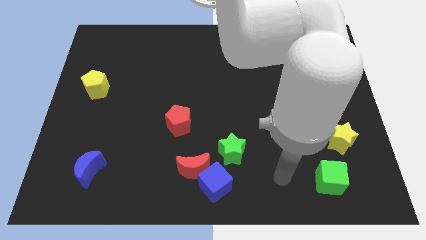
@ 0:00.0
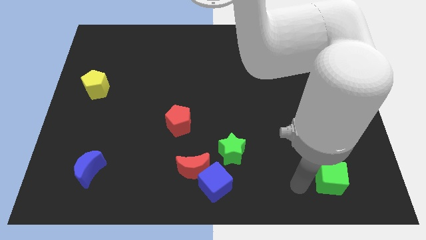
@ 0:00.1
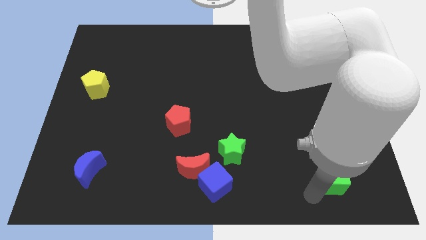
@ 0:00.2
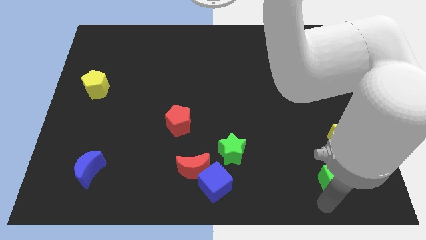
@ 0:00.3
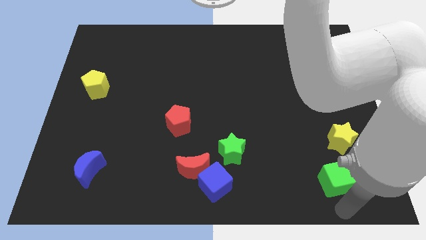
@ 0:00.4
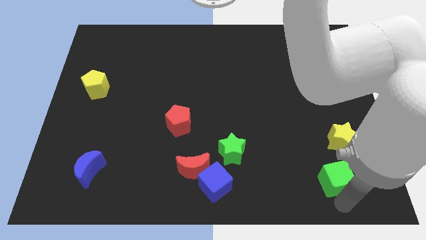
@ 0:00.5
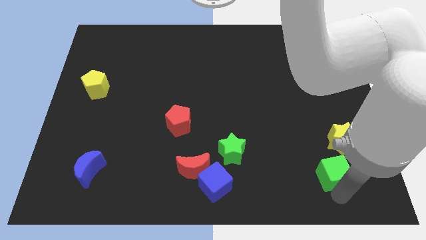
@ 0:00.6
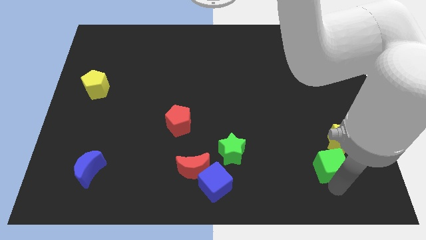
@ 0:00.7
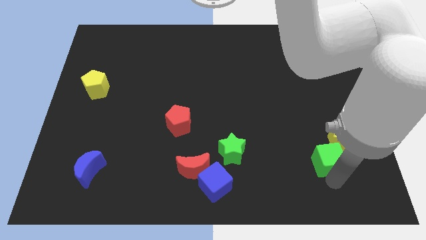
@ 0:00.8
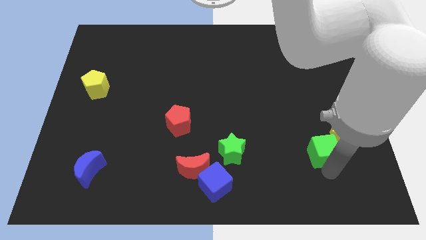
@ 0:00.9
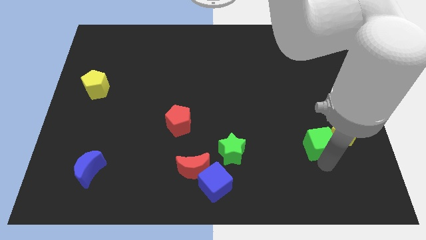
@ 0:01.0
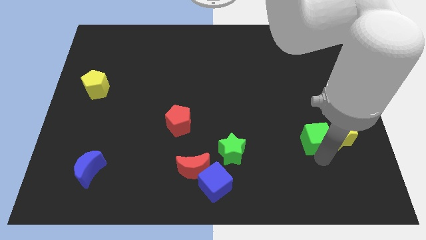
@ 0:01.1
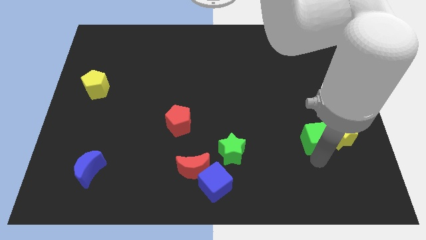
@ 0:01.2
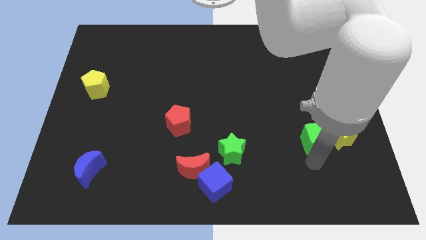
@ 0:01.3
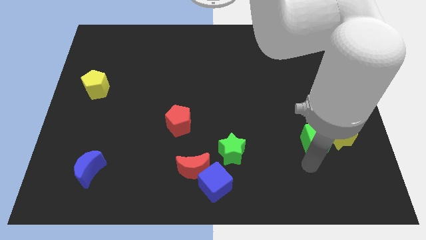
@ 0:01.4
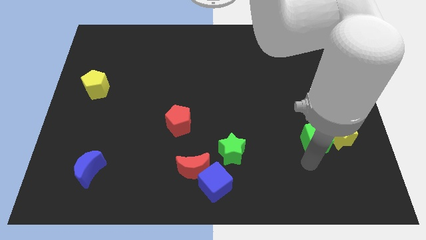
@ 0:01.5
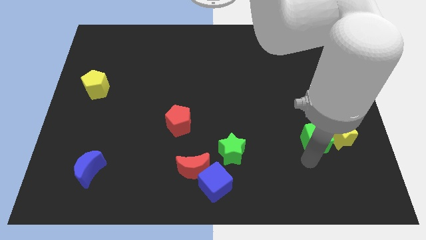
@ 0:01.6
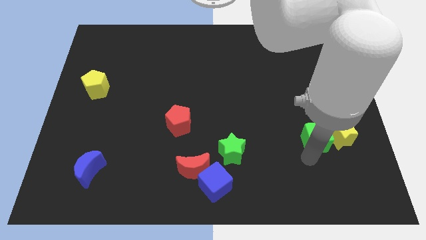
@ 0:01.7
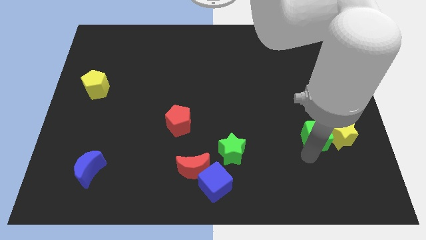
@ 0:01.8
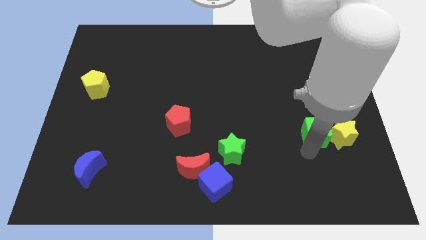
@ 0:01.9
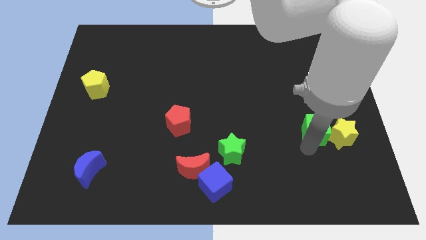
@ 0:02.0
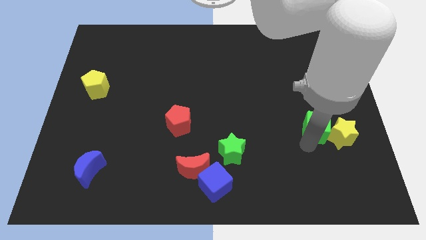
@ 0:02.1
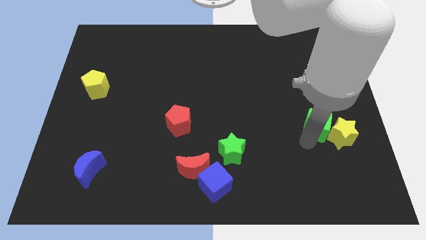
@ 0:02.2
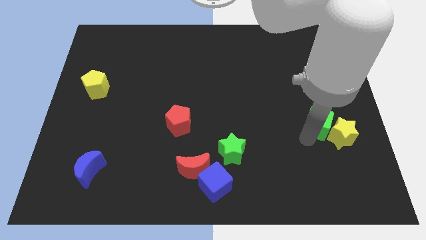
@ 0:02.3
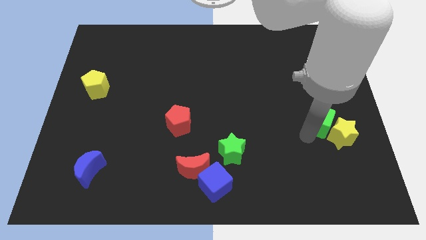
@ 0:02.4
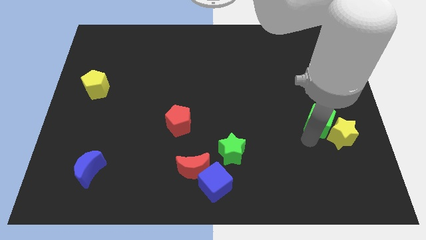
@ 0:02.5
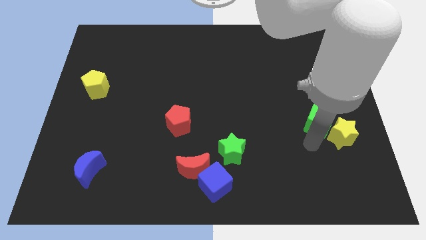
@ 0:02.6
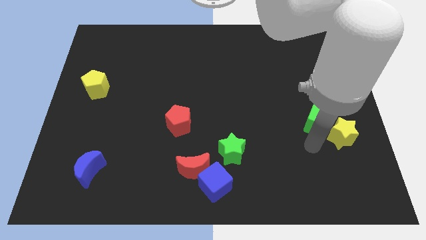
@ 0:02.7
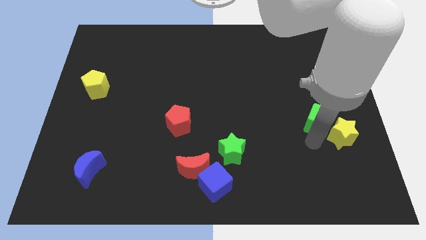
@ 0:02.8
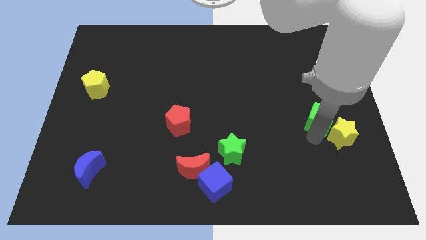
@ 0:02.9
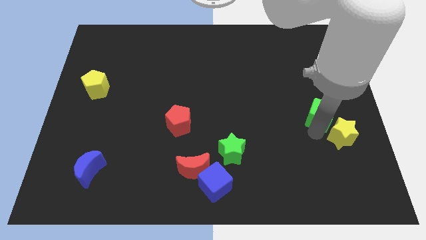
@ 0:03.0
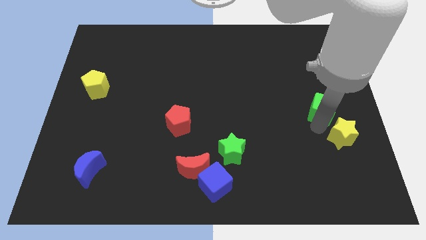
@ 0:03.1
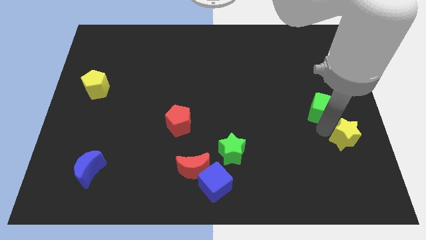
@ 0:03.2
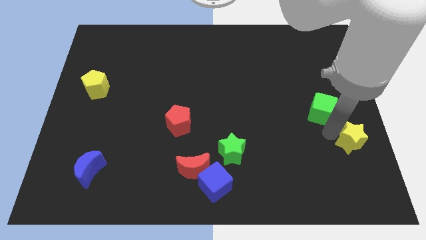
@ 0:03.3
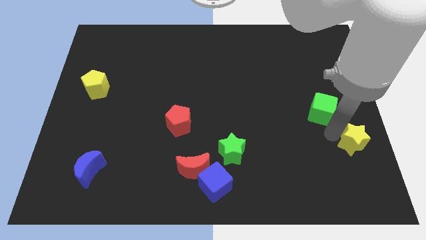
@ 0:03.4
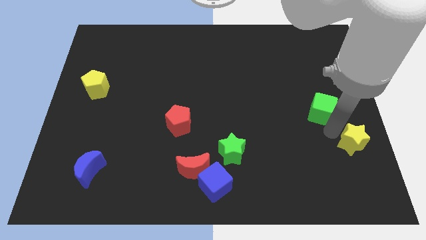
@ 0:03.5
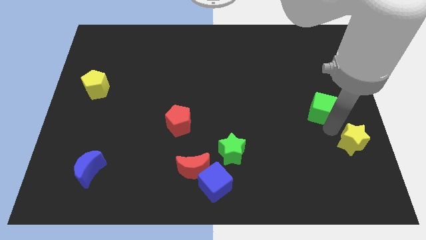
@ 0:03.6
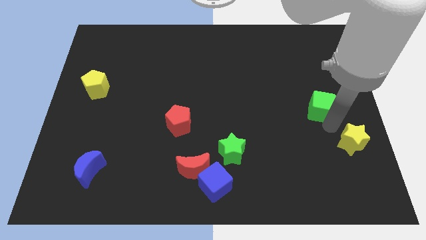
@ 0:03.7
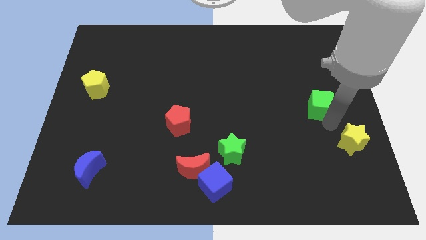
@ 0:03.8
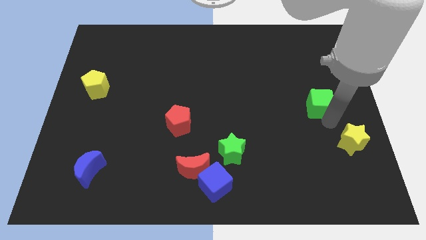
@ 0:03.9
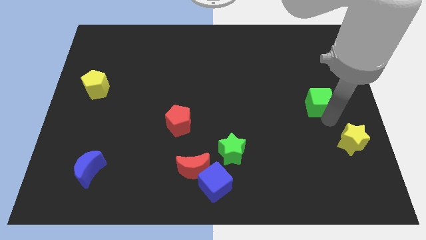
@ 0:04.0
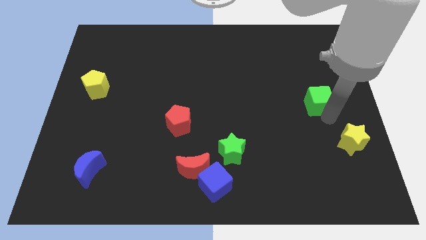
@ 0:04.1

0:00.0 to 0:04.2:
slide the green cube upwards

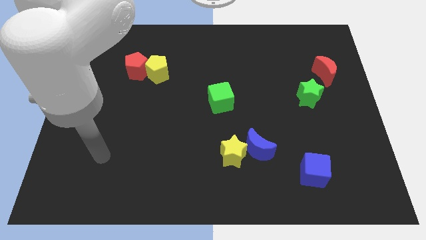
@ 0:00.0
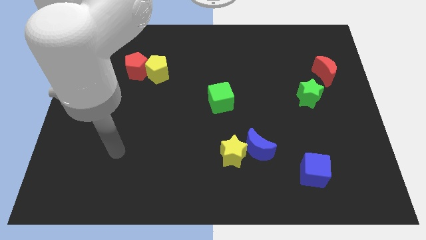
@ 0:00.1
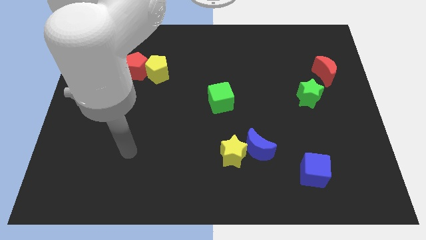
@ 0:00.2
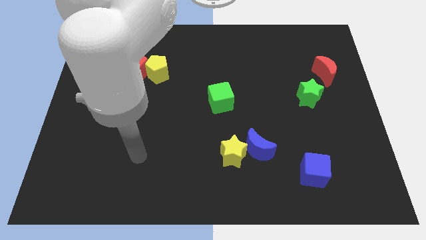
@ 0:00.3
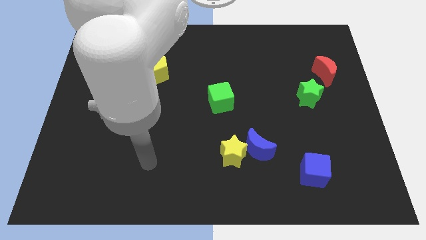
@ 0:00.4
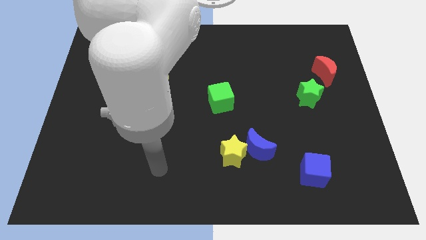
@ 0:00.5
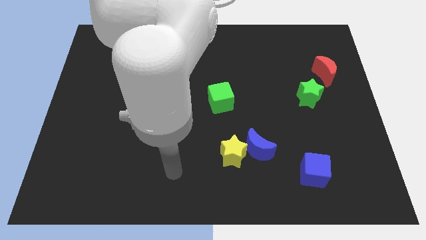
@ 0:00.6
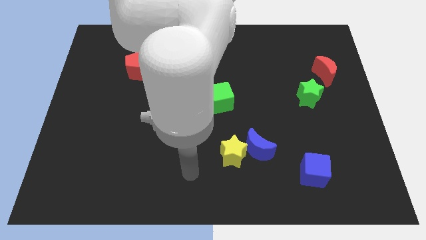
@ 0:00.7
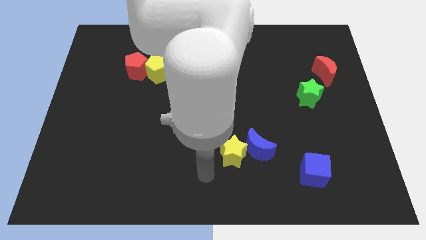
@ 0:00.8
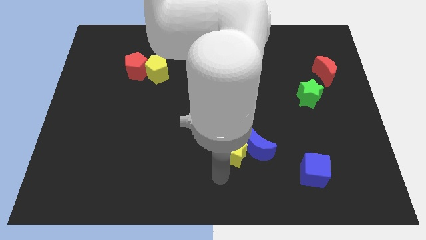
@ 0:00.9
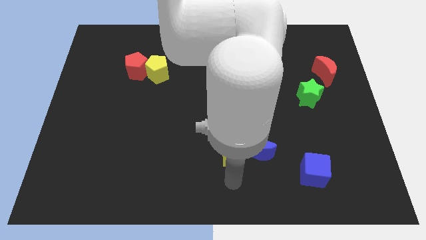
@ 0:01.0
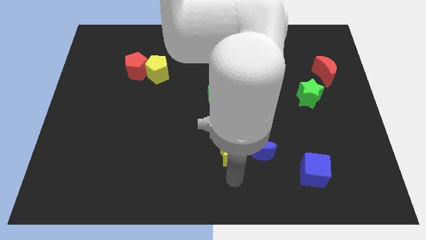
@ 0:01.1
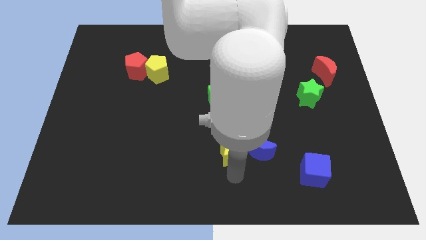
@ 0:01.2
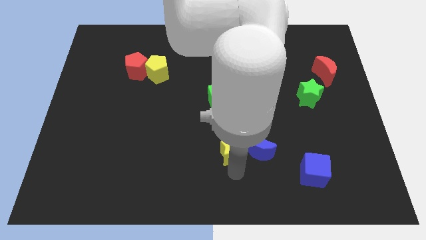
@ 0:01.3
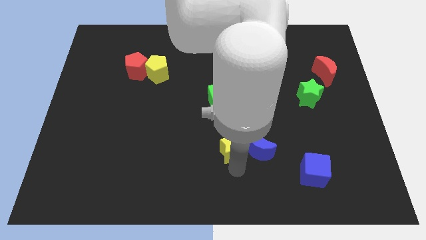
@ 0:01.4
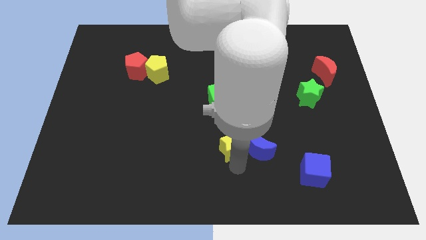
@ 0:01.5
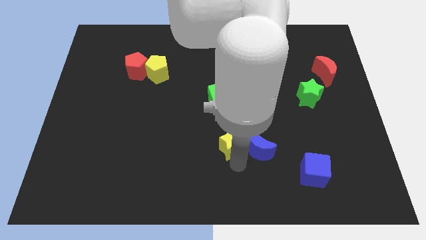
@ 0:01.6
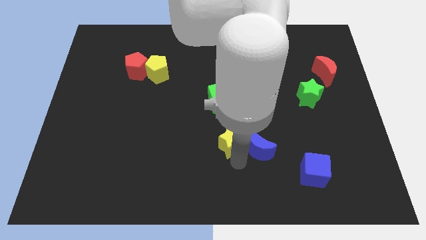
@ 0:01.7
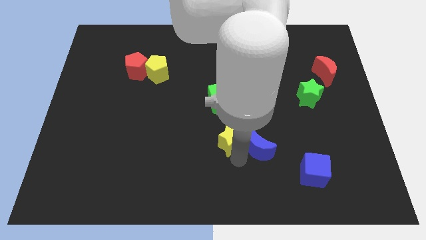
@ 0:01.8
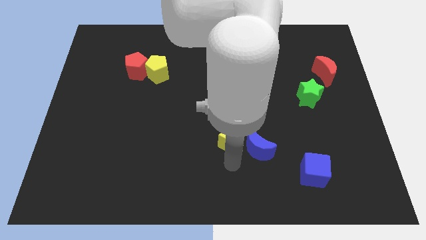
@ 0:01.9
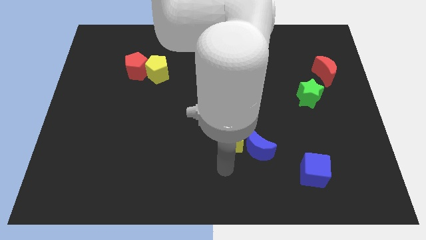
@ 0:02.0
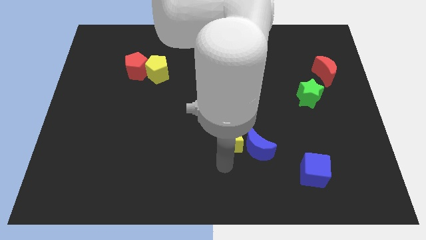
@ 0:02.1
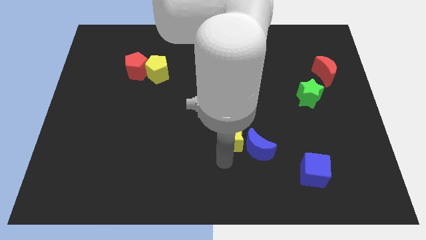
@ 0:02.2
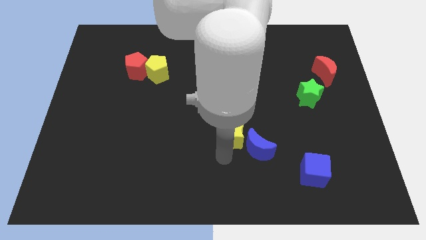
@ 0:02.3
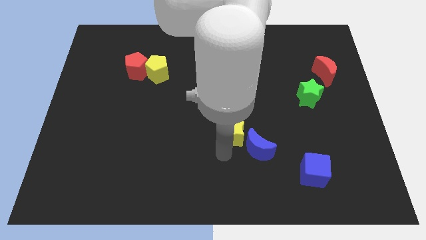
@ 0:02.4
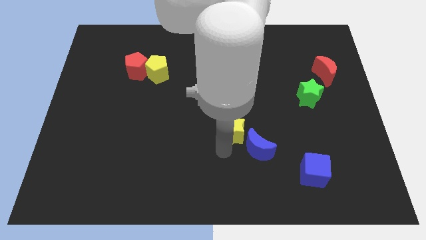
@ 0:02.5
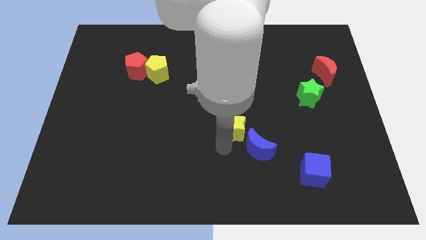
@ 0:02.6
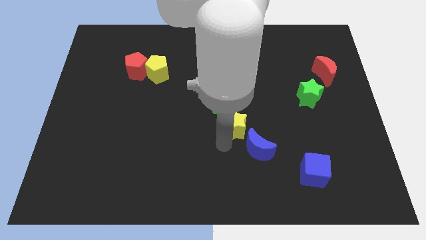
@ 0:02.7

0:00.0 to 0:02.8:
slightly push the yellow star upwards

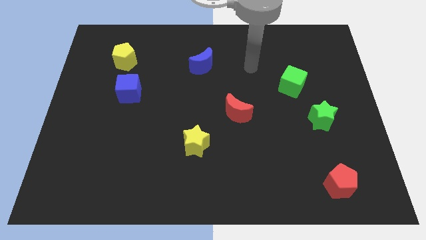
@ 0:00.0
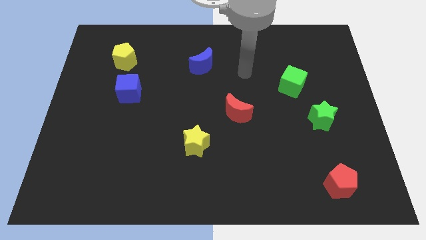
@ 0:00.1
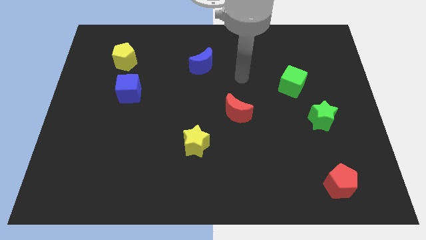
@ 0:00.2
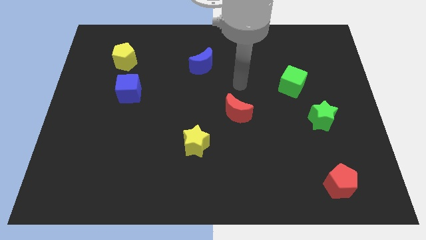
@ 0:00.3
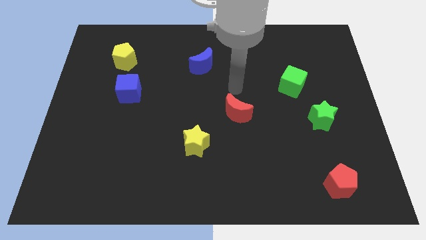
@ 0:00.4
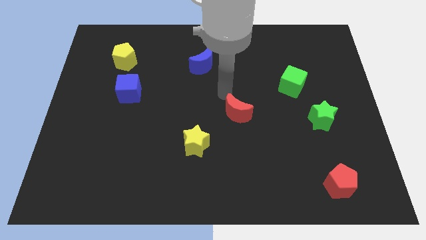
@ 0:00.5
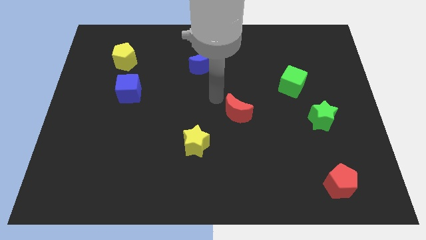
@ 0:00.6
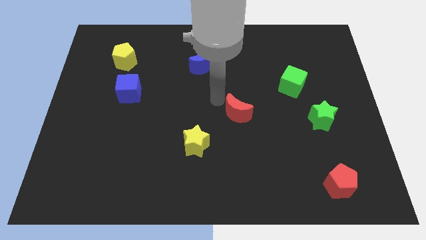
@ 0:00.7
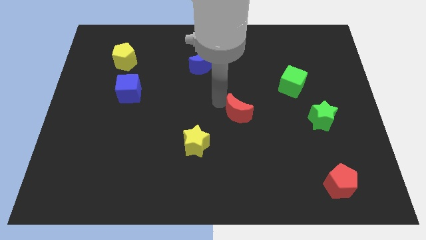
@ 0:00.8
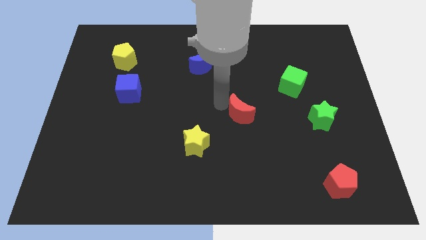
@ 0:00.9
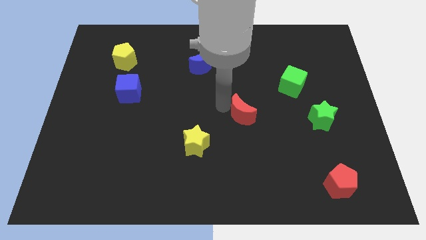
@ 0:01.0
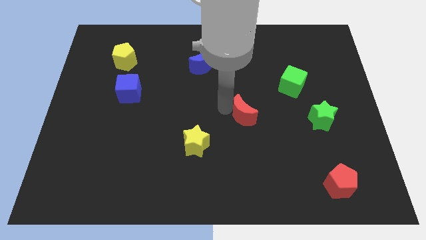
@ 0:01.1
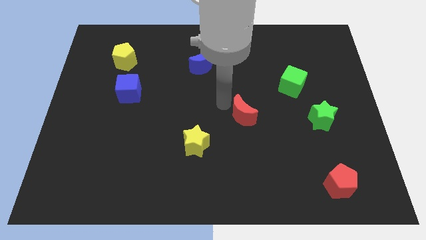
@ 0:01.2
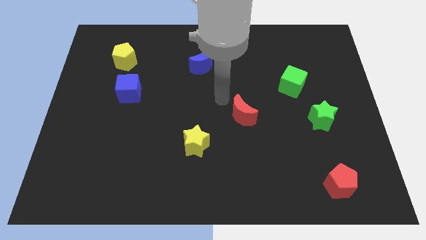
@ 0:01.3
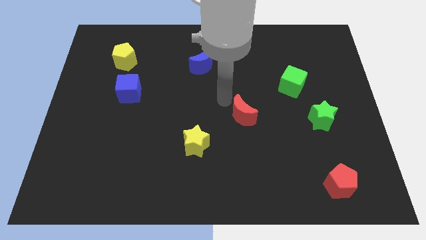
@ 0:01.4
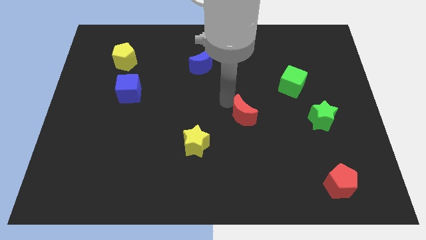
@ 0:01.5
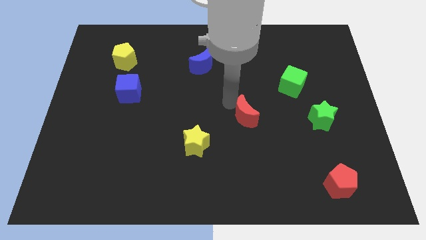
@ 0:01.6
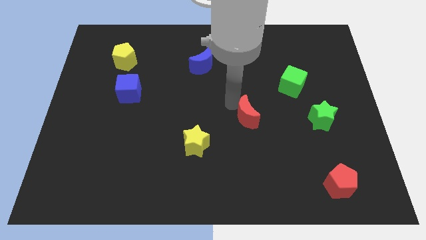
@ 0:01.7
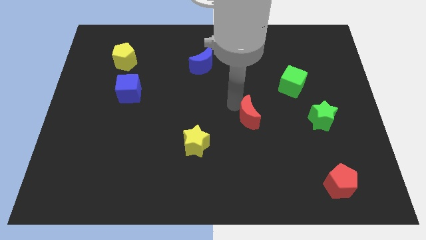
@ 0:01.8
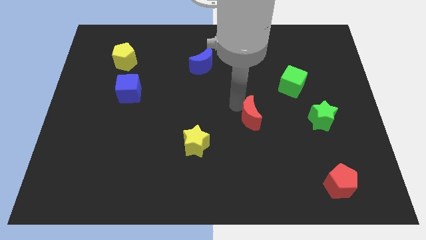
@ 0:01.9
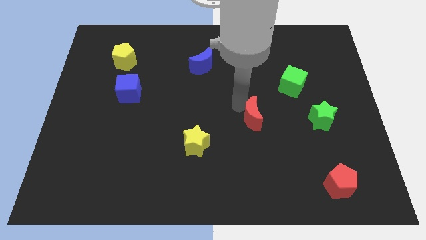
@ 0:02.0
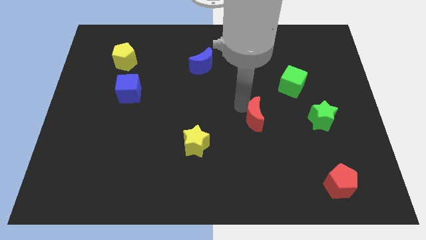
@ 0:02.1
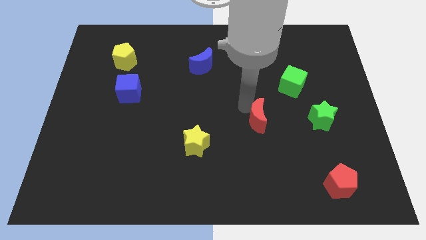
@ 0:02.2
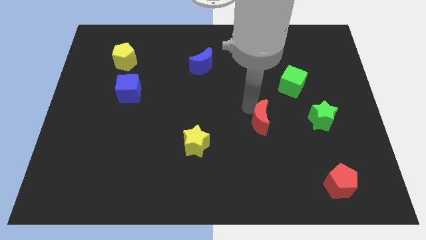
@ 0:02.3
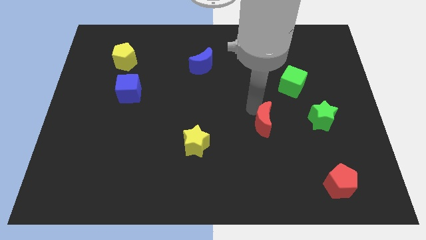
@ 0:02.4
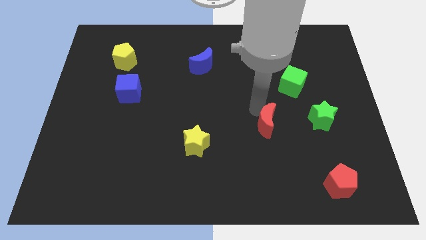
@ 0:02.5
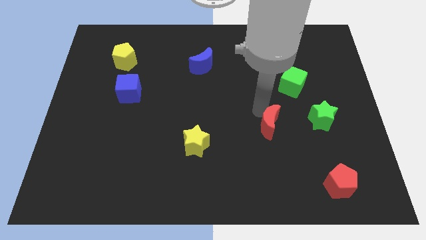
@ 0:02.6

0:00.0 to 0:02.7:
push the red moon downwards and right a little
